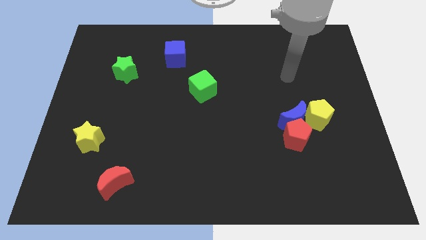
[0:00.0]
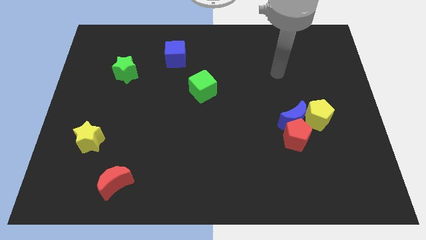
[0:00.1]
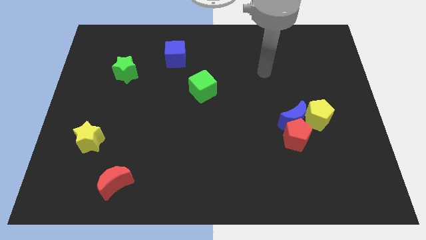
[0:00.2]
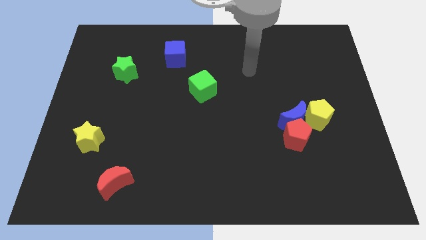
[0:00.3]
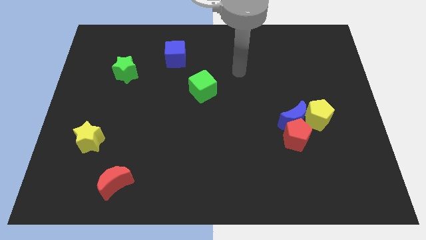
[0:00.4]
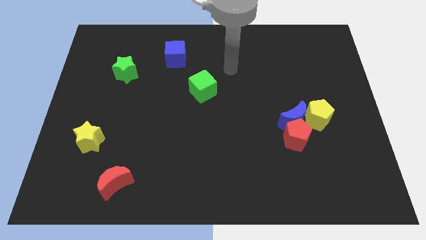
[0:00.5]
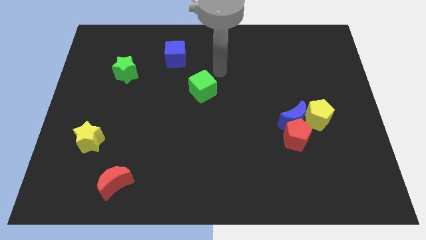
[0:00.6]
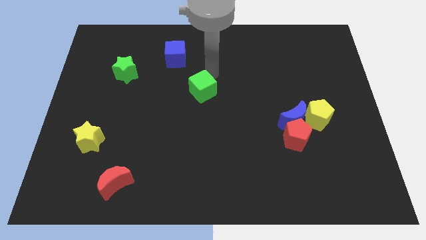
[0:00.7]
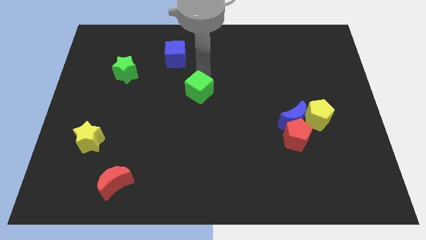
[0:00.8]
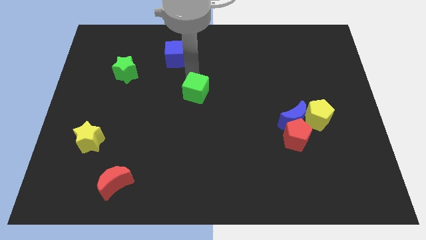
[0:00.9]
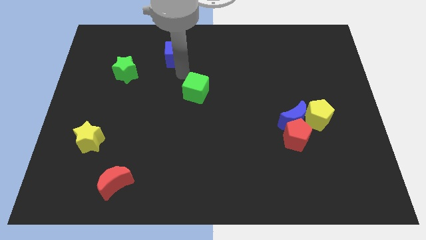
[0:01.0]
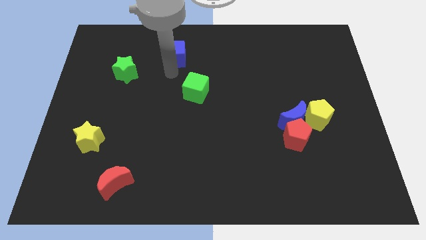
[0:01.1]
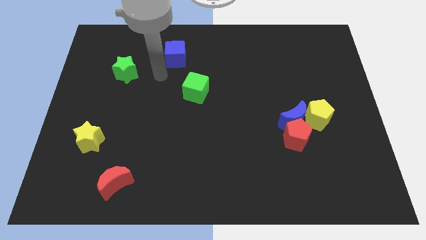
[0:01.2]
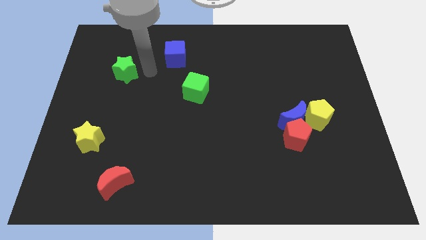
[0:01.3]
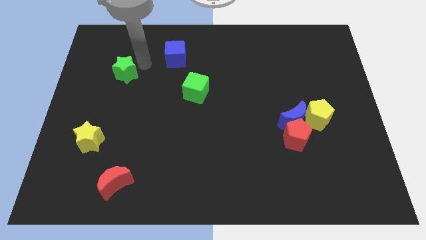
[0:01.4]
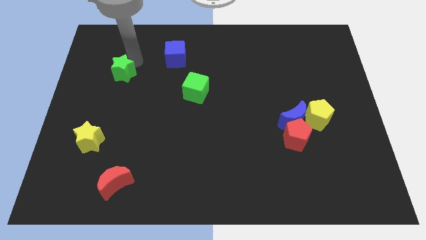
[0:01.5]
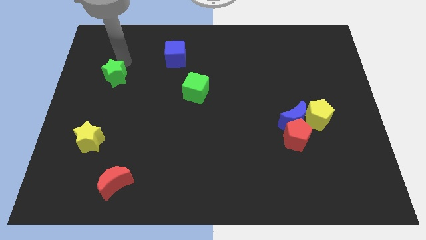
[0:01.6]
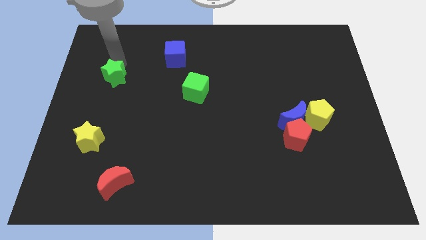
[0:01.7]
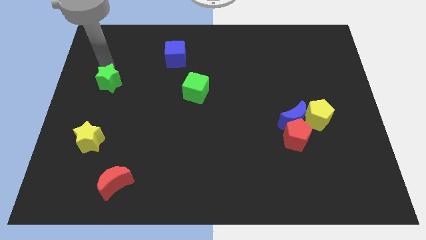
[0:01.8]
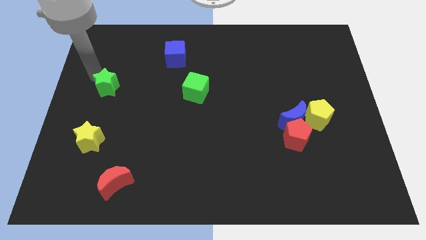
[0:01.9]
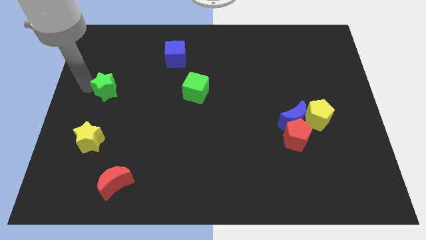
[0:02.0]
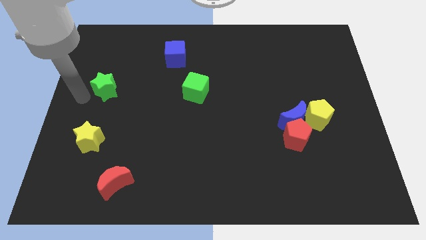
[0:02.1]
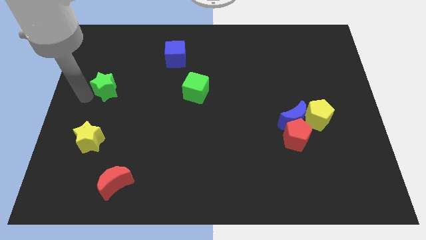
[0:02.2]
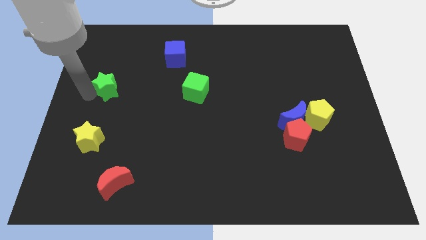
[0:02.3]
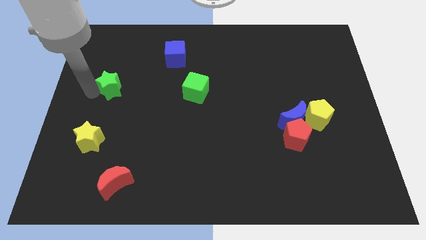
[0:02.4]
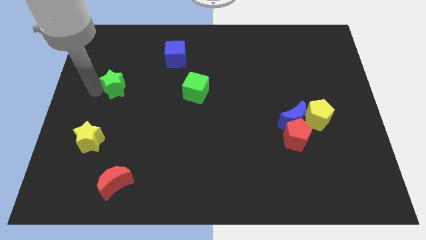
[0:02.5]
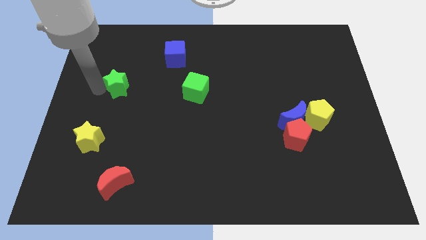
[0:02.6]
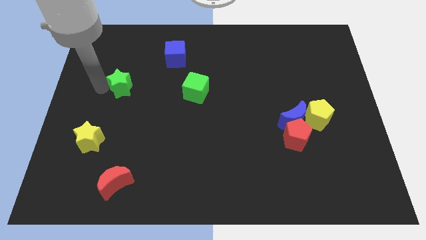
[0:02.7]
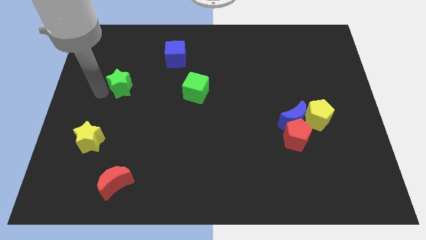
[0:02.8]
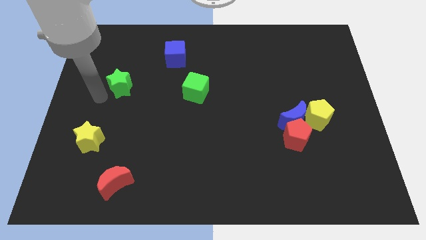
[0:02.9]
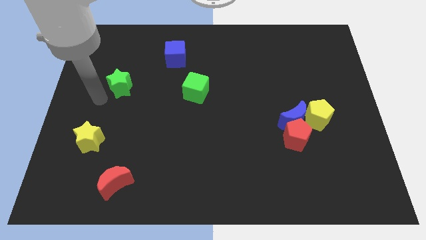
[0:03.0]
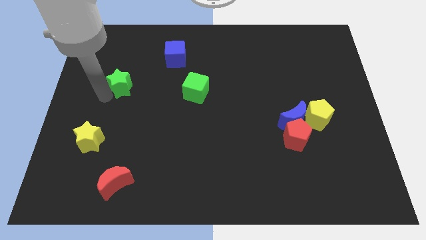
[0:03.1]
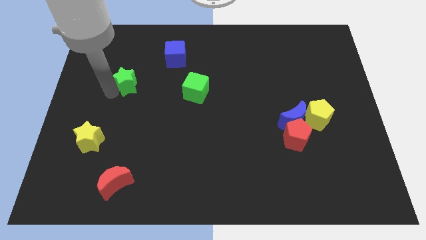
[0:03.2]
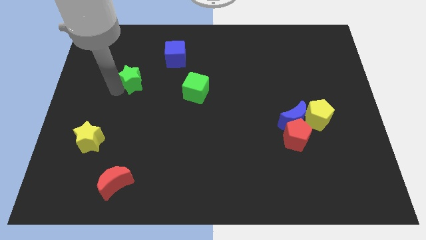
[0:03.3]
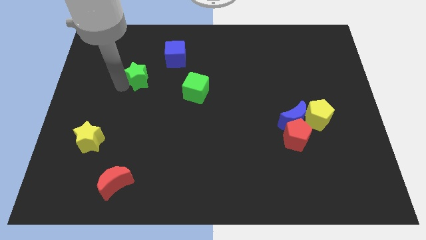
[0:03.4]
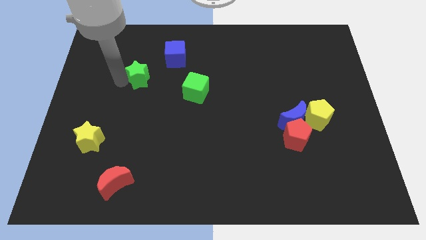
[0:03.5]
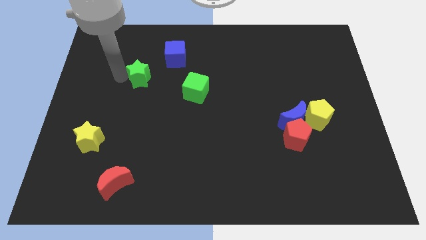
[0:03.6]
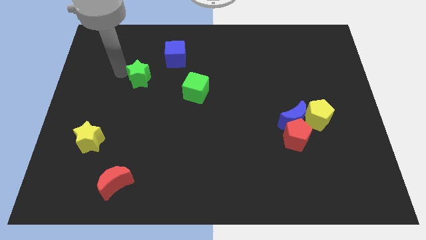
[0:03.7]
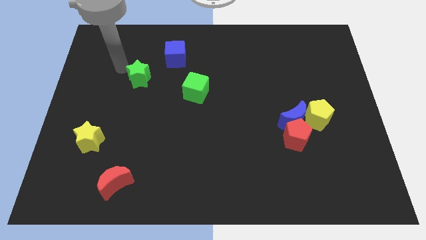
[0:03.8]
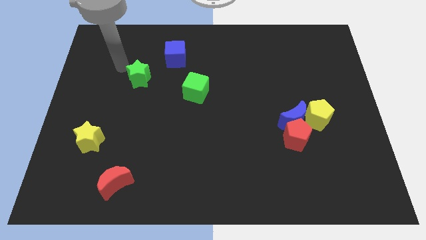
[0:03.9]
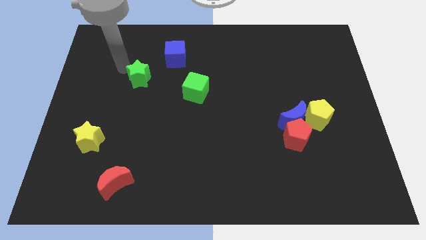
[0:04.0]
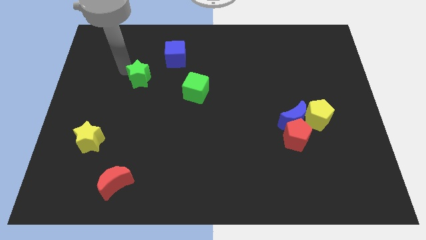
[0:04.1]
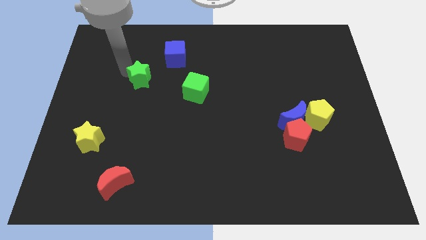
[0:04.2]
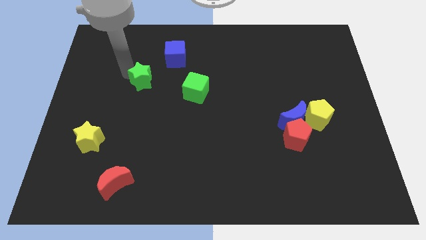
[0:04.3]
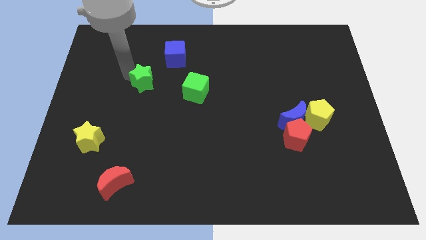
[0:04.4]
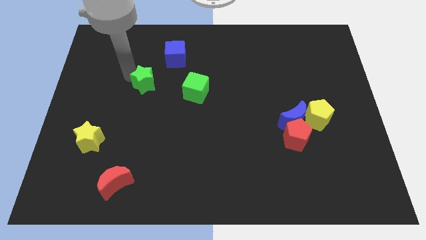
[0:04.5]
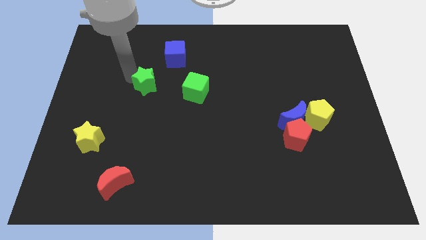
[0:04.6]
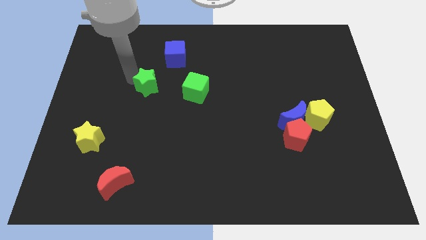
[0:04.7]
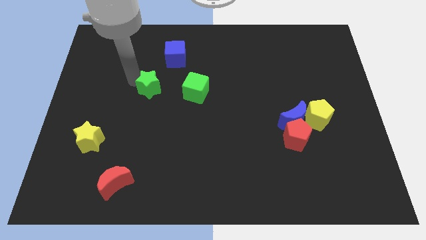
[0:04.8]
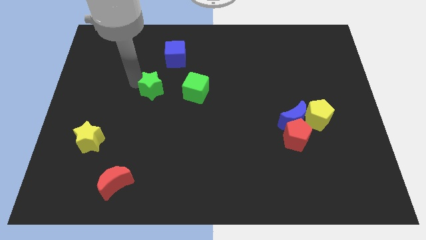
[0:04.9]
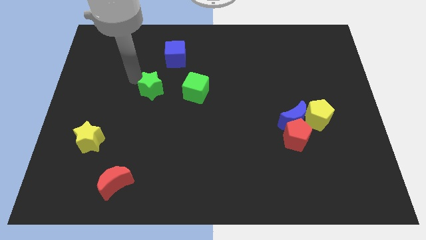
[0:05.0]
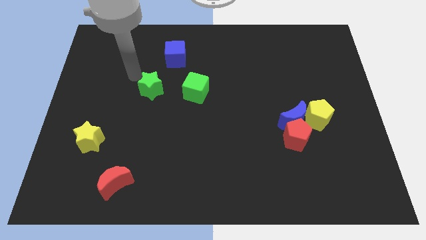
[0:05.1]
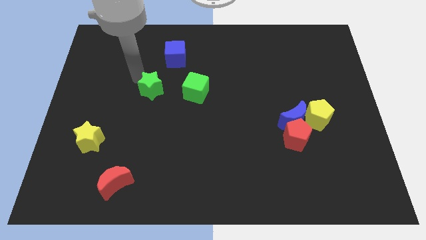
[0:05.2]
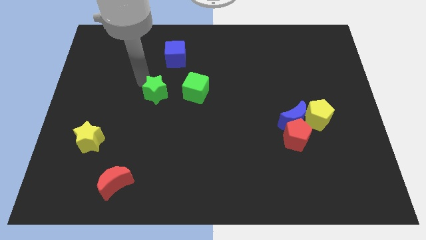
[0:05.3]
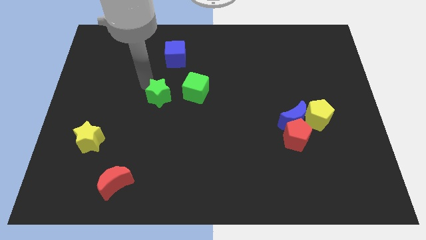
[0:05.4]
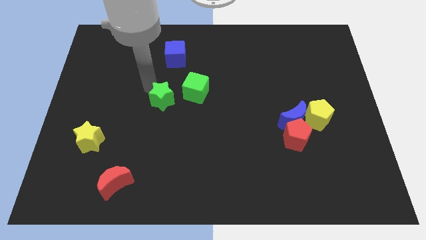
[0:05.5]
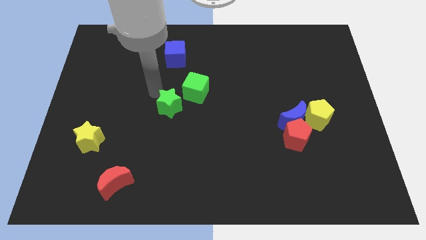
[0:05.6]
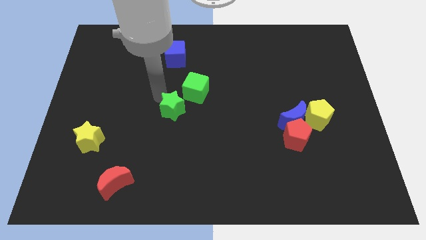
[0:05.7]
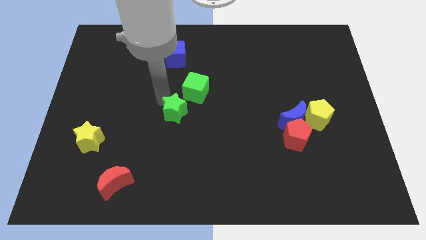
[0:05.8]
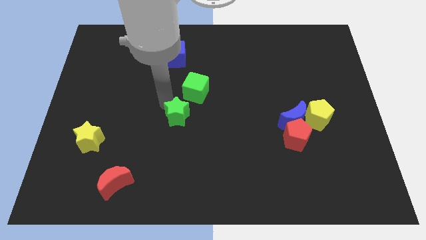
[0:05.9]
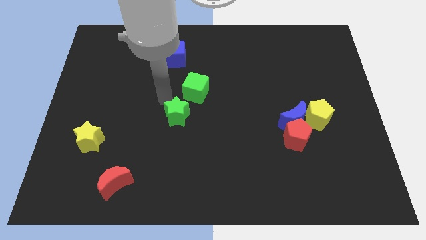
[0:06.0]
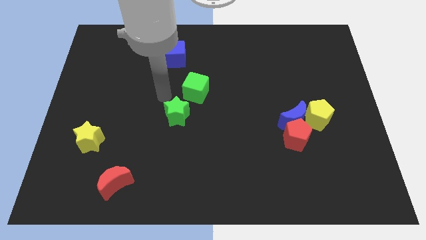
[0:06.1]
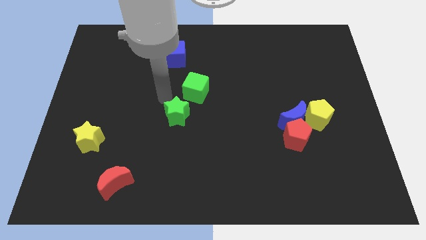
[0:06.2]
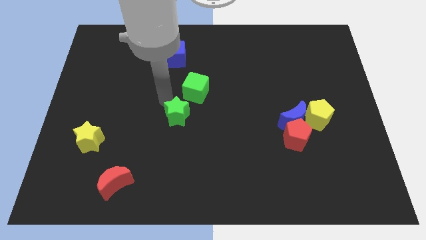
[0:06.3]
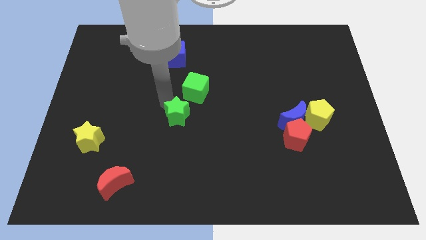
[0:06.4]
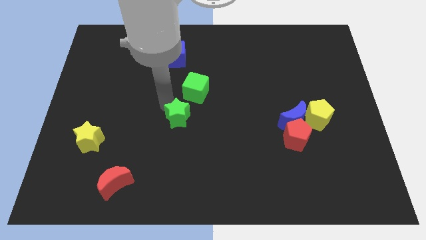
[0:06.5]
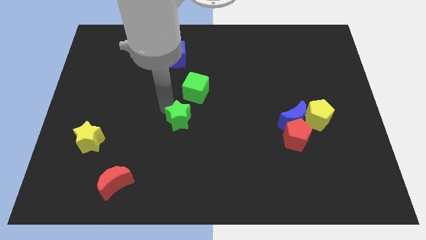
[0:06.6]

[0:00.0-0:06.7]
slide the green star down and right diagonally

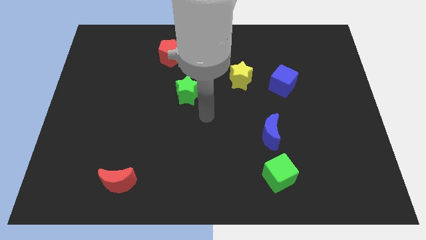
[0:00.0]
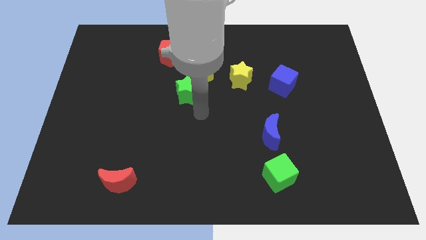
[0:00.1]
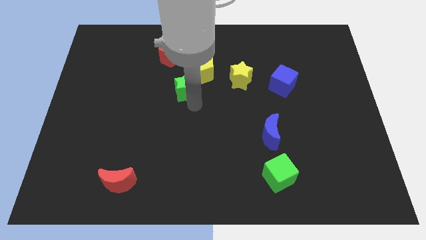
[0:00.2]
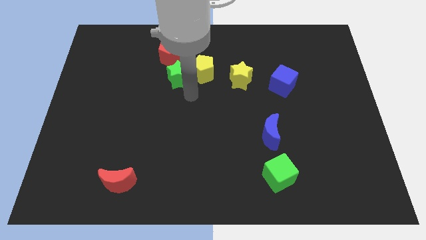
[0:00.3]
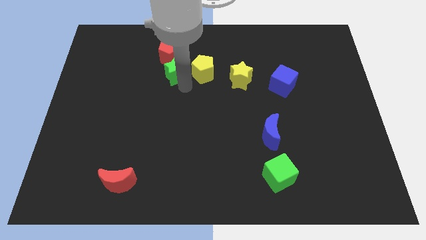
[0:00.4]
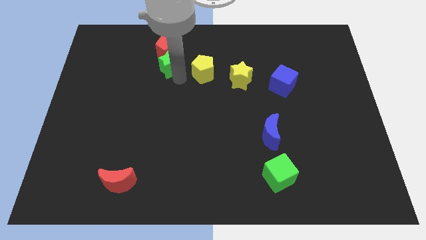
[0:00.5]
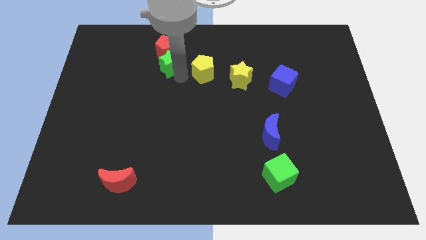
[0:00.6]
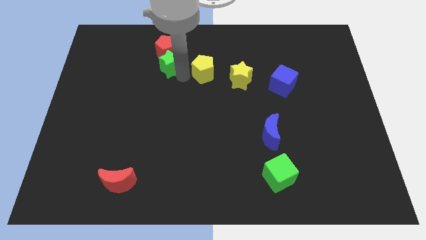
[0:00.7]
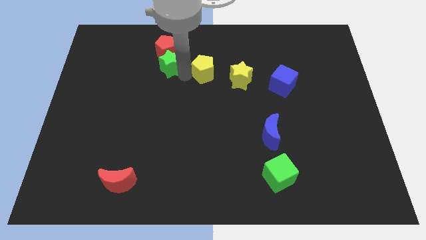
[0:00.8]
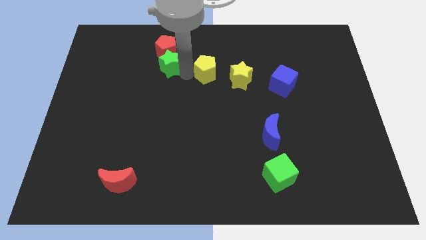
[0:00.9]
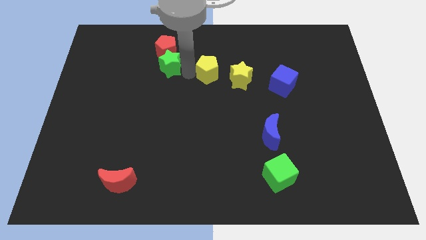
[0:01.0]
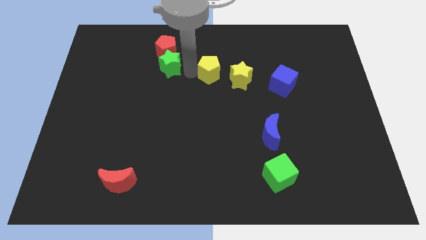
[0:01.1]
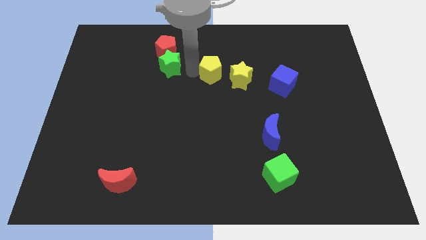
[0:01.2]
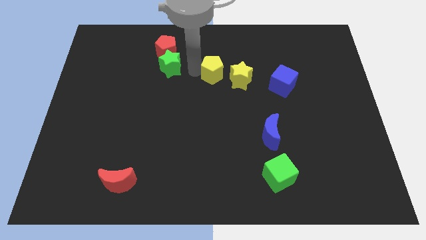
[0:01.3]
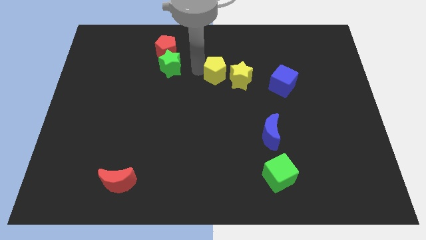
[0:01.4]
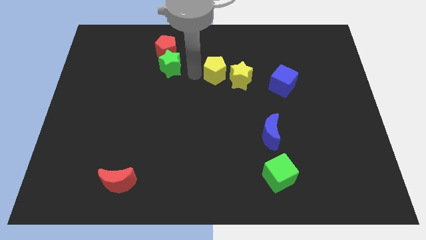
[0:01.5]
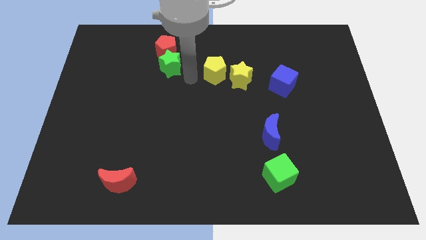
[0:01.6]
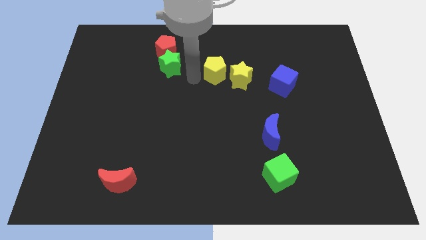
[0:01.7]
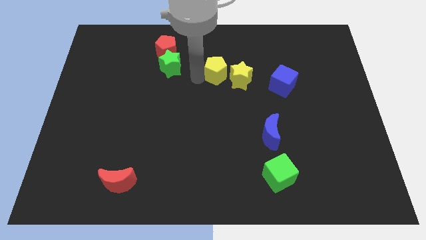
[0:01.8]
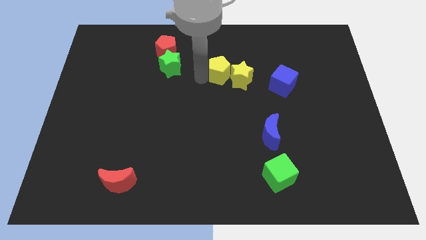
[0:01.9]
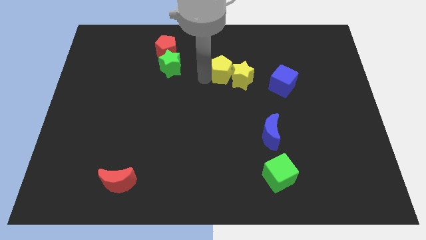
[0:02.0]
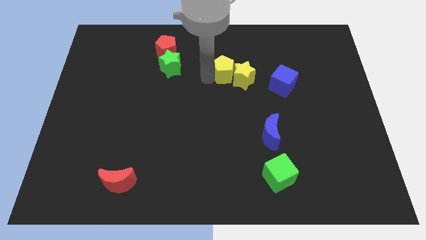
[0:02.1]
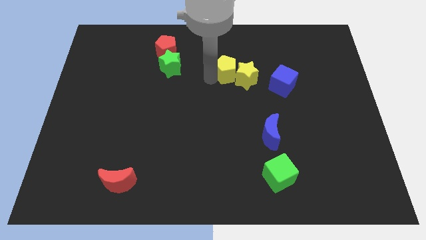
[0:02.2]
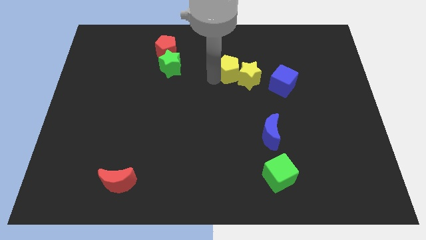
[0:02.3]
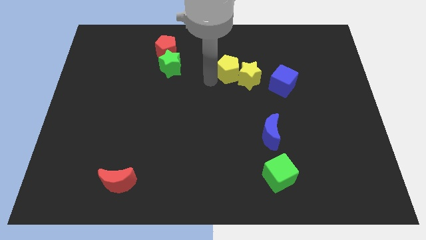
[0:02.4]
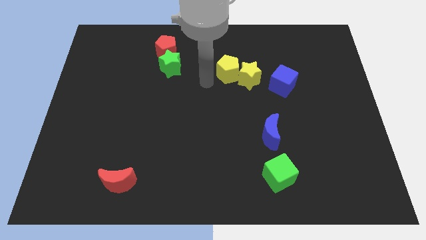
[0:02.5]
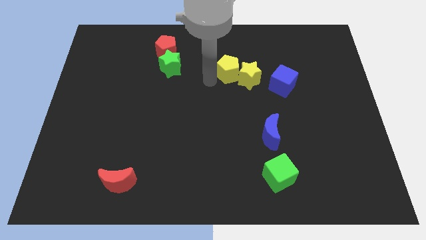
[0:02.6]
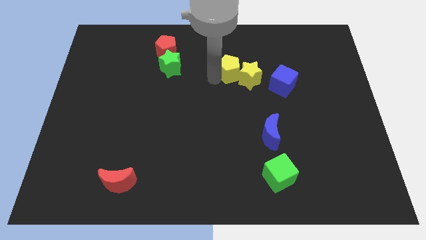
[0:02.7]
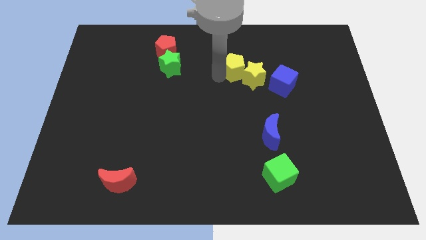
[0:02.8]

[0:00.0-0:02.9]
slightly push the yellow pentagon to the right
